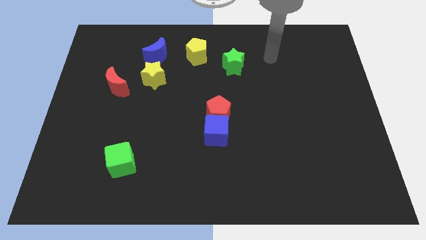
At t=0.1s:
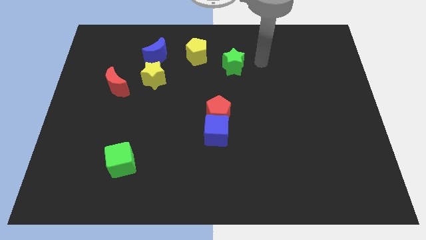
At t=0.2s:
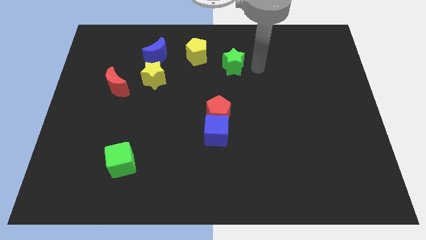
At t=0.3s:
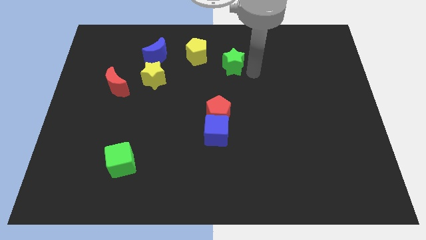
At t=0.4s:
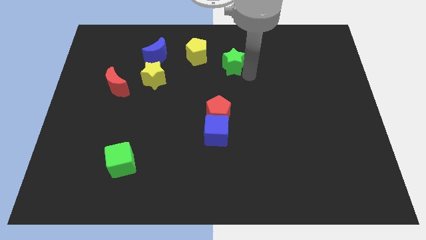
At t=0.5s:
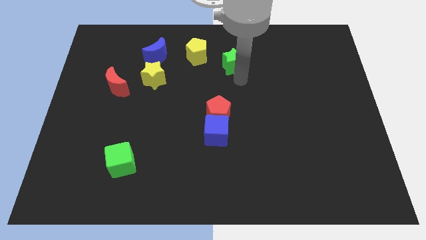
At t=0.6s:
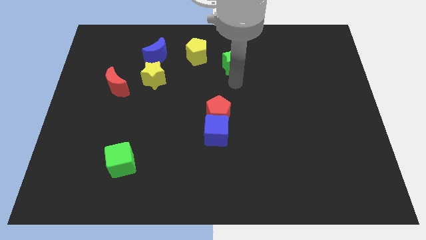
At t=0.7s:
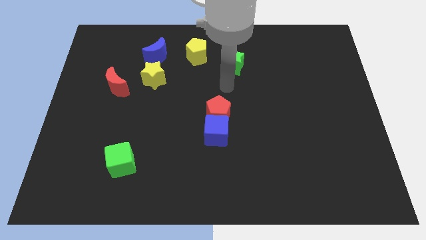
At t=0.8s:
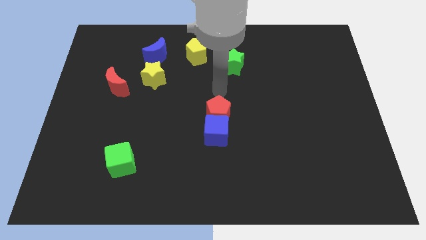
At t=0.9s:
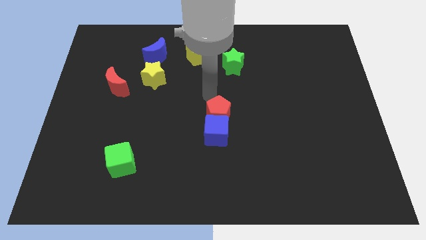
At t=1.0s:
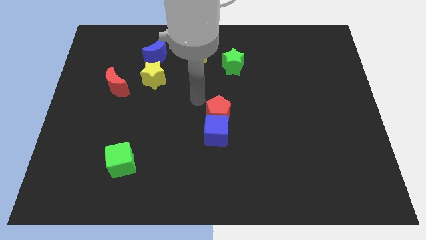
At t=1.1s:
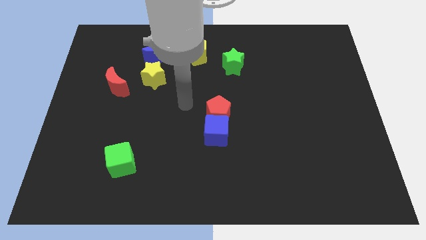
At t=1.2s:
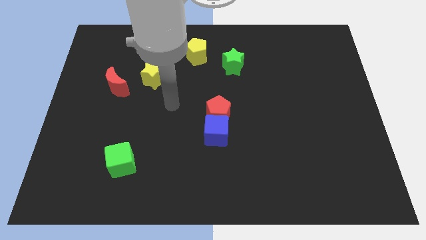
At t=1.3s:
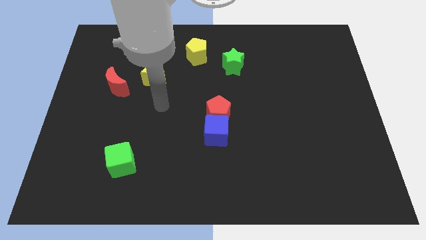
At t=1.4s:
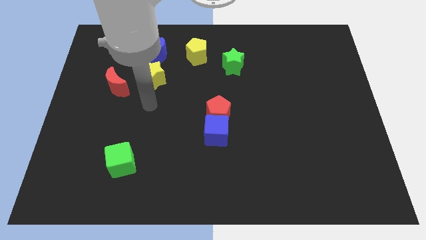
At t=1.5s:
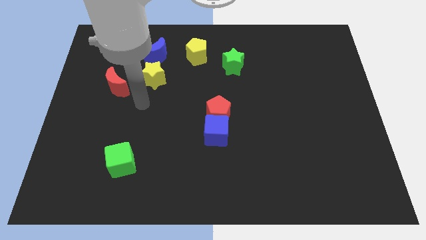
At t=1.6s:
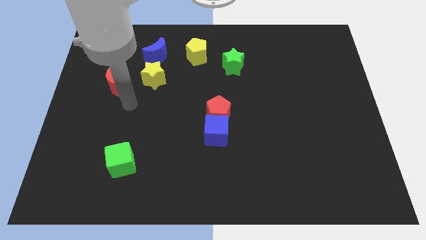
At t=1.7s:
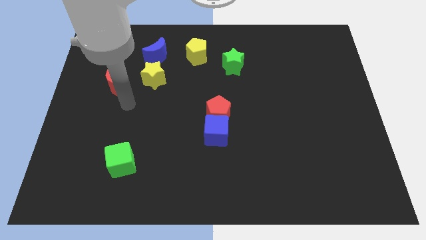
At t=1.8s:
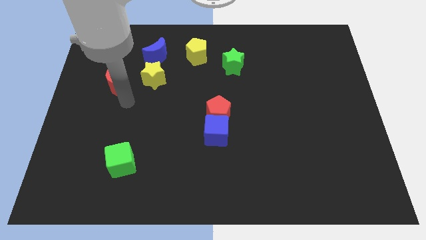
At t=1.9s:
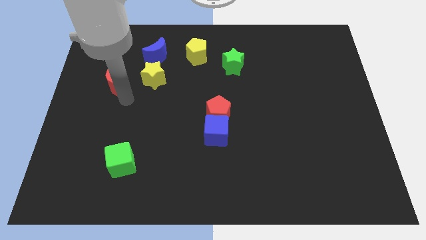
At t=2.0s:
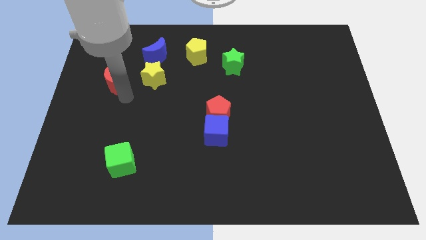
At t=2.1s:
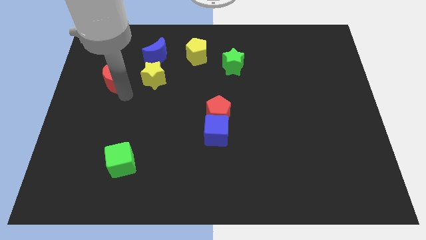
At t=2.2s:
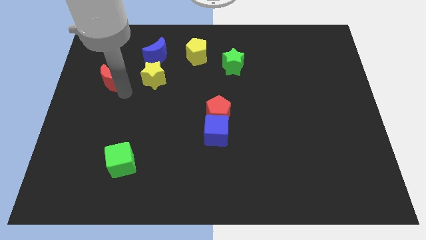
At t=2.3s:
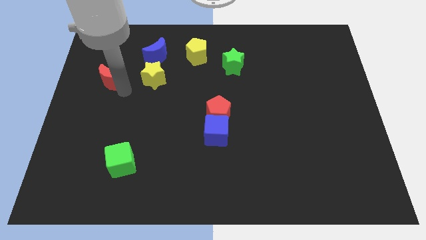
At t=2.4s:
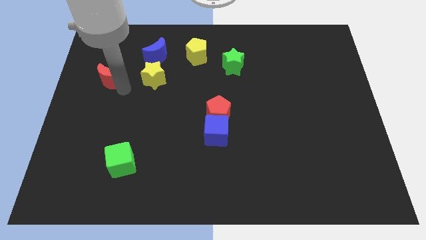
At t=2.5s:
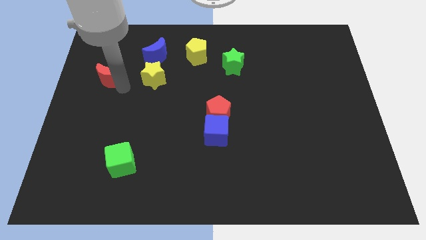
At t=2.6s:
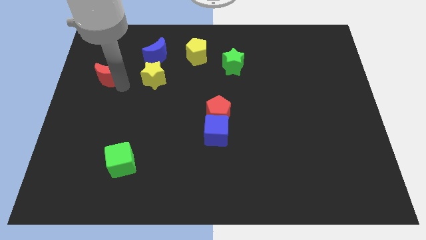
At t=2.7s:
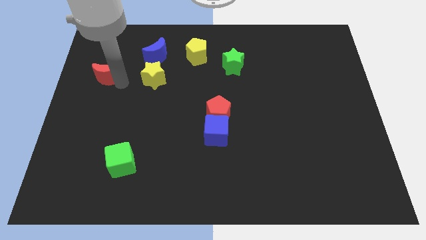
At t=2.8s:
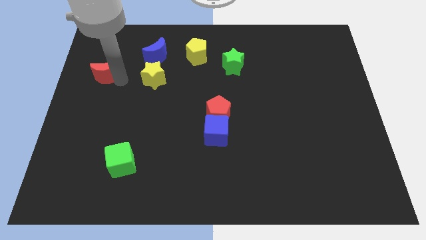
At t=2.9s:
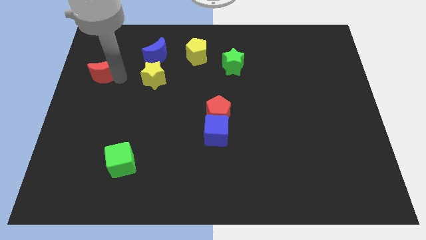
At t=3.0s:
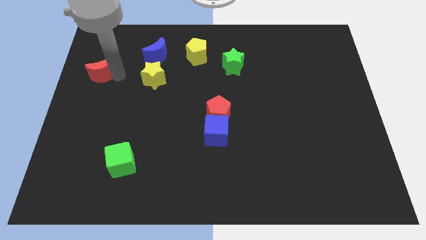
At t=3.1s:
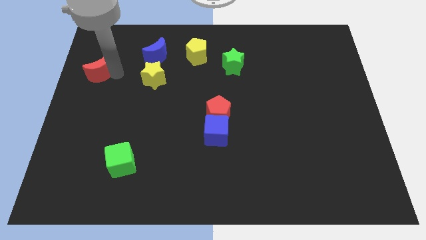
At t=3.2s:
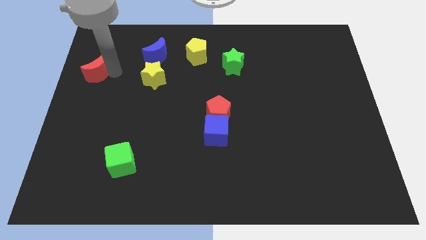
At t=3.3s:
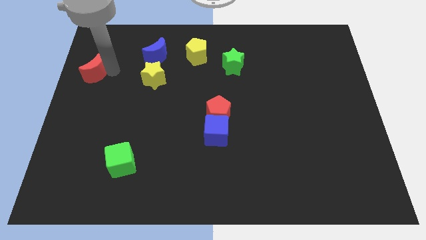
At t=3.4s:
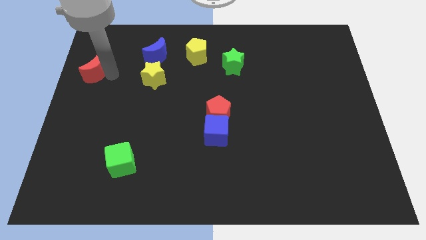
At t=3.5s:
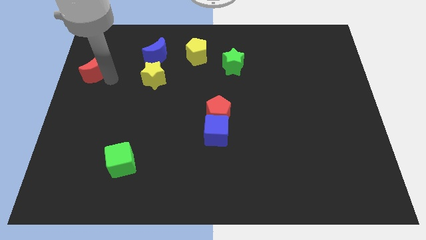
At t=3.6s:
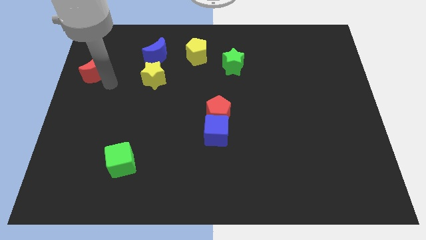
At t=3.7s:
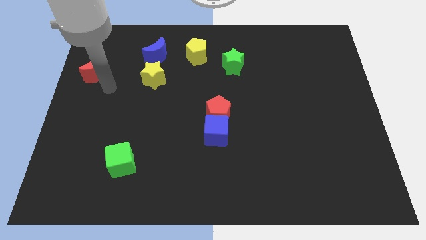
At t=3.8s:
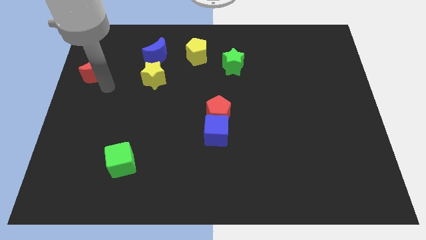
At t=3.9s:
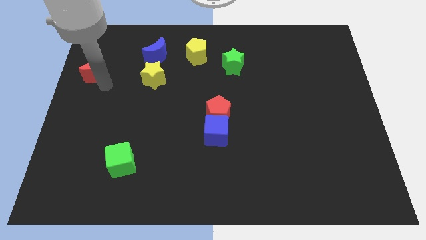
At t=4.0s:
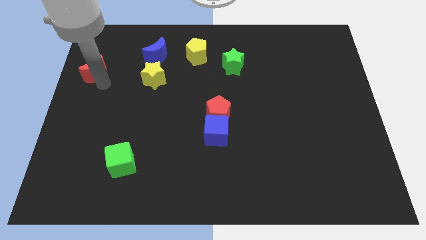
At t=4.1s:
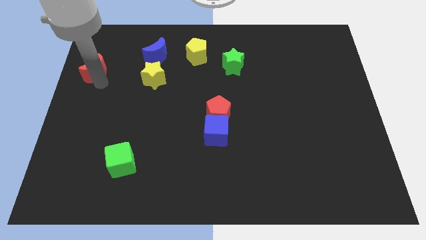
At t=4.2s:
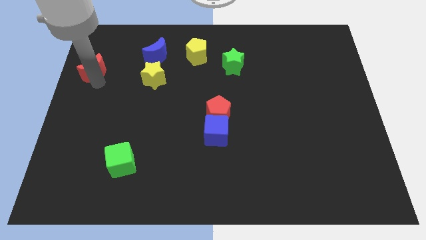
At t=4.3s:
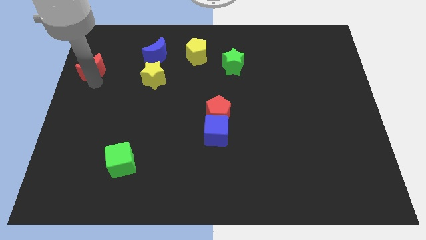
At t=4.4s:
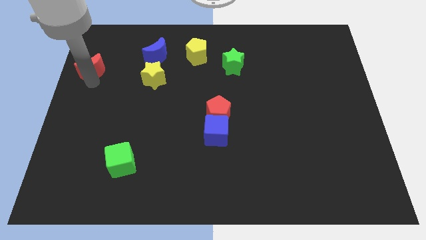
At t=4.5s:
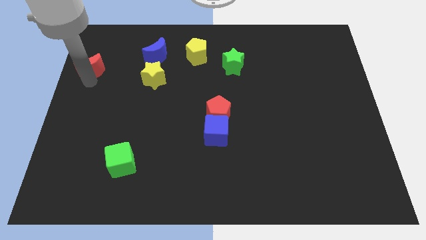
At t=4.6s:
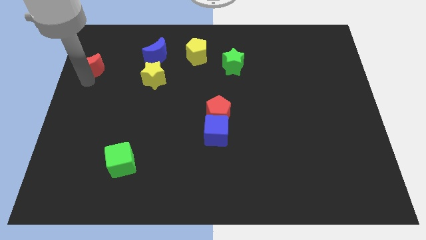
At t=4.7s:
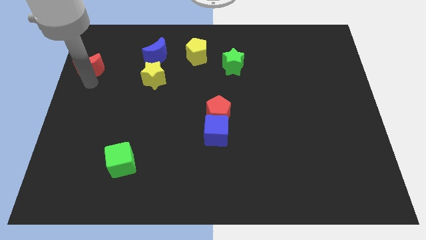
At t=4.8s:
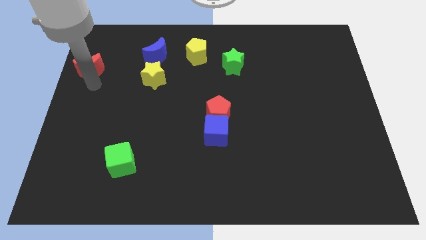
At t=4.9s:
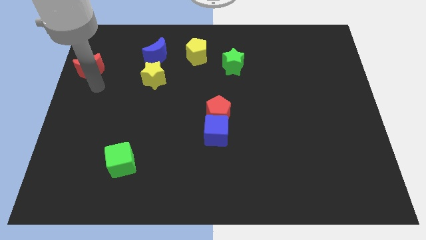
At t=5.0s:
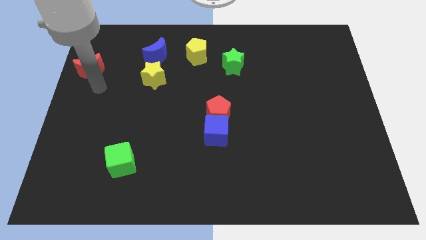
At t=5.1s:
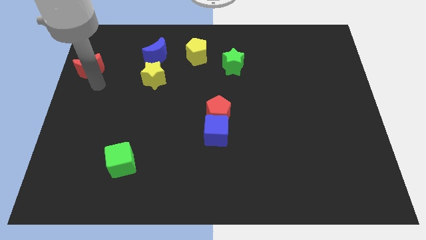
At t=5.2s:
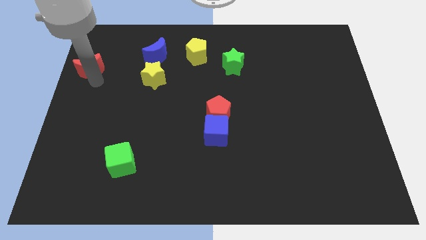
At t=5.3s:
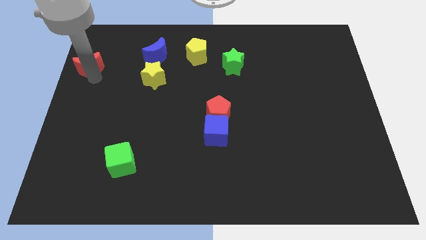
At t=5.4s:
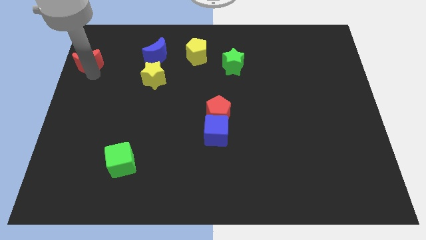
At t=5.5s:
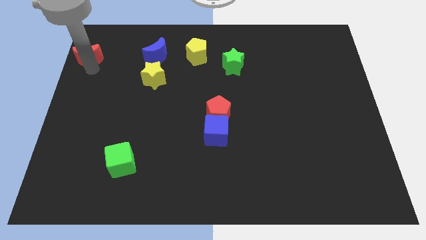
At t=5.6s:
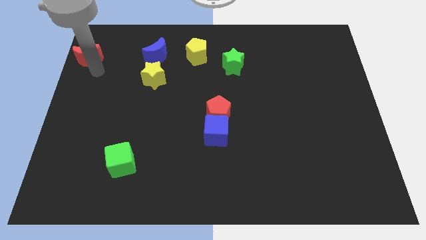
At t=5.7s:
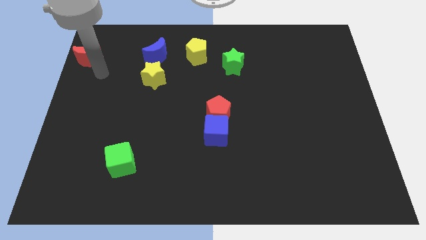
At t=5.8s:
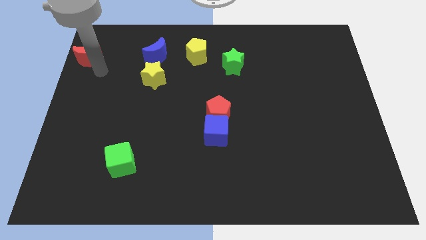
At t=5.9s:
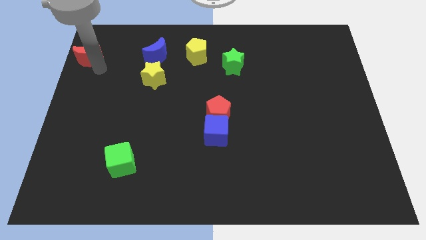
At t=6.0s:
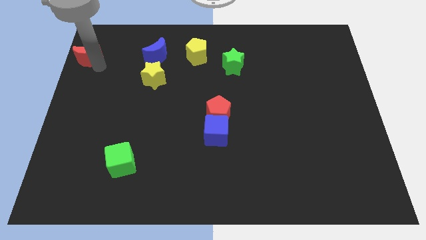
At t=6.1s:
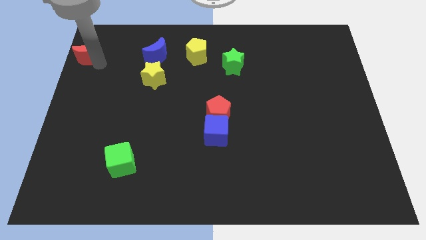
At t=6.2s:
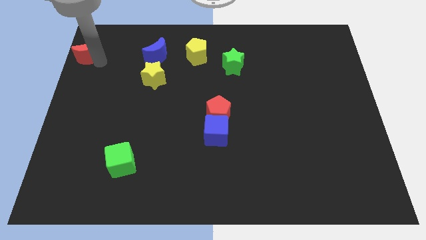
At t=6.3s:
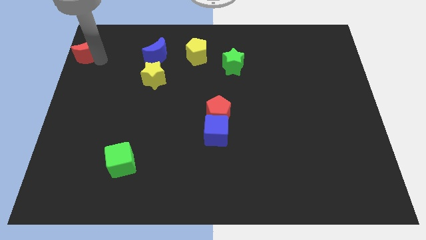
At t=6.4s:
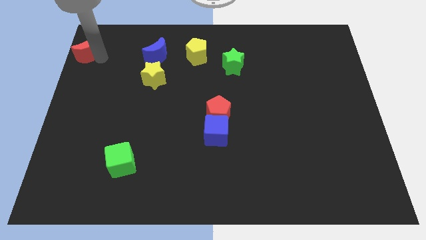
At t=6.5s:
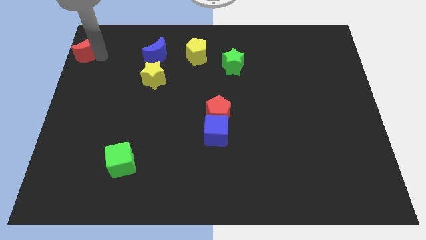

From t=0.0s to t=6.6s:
move the red moon to the top left corner
